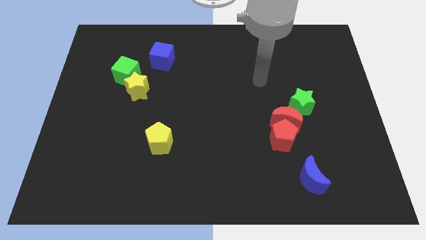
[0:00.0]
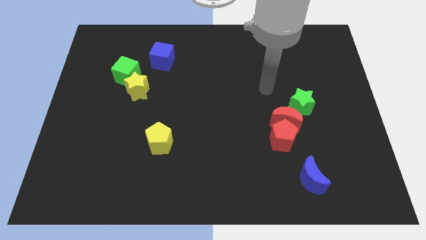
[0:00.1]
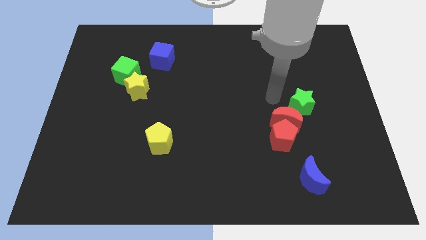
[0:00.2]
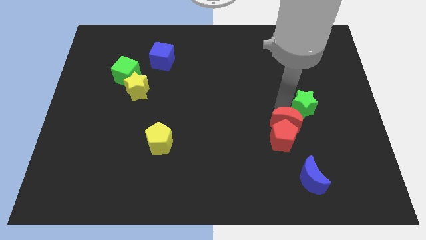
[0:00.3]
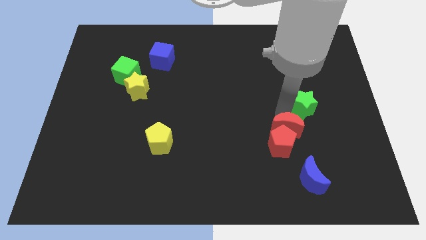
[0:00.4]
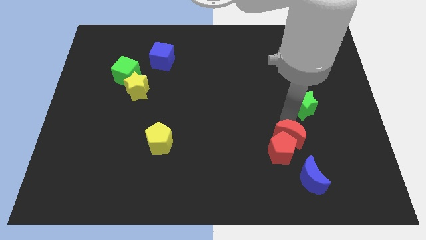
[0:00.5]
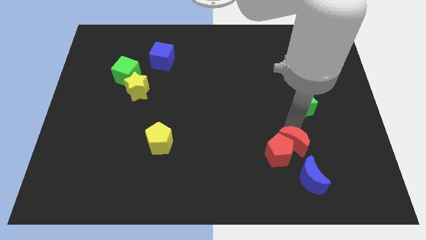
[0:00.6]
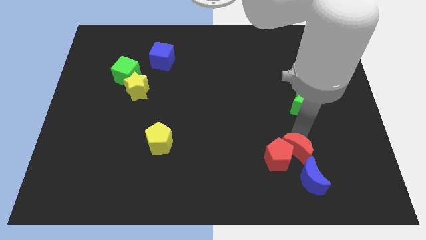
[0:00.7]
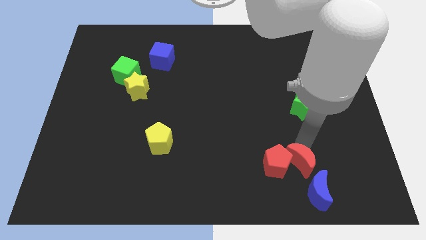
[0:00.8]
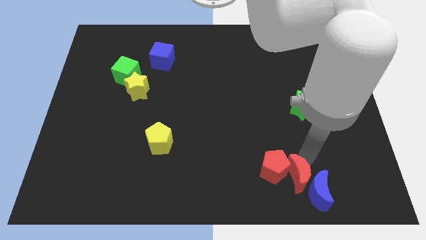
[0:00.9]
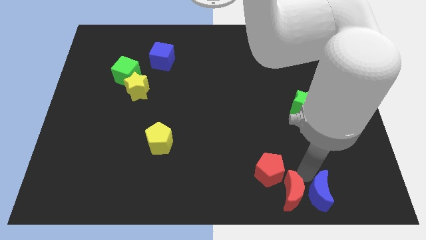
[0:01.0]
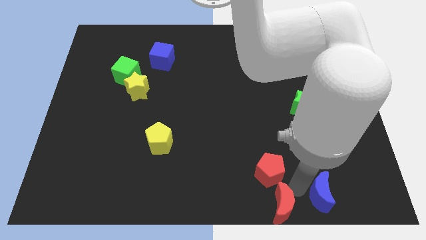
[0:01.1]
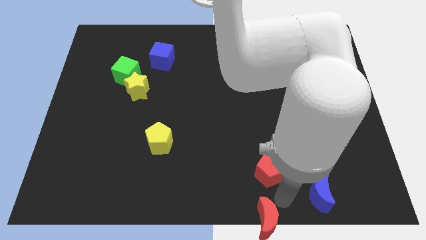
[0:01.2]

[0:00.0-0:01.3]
pull the red pentagon apart from the red moon

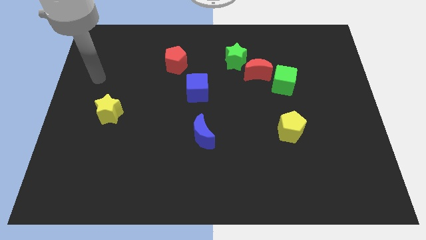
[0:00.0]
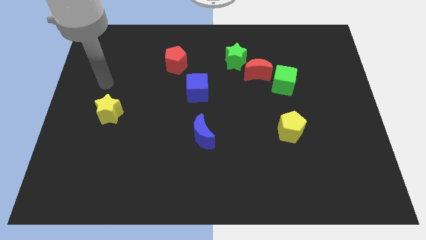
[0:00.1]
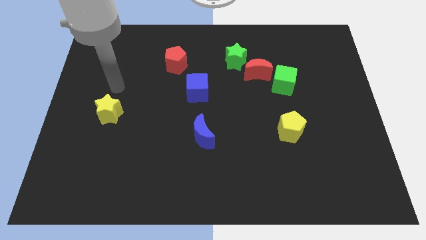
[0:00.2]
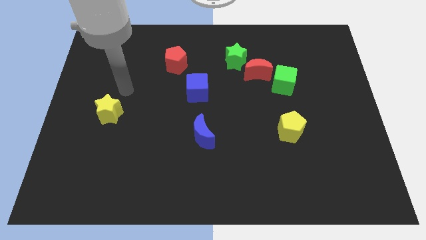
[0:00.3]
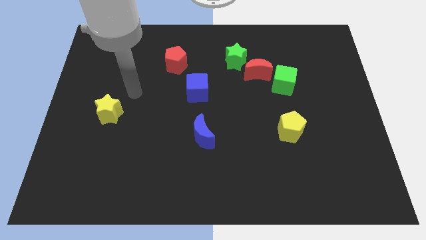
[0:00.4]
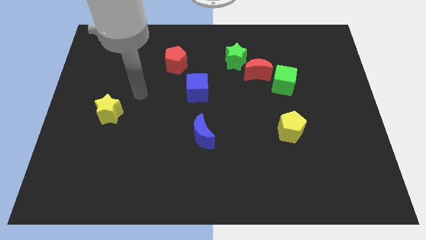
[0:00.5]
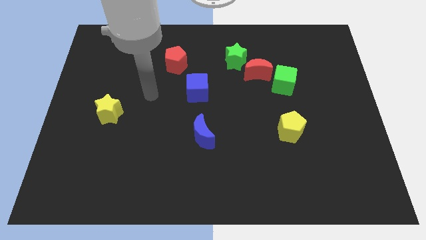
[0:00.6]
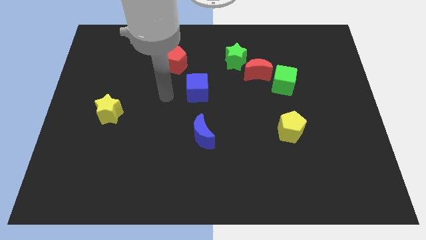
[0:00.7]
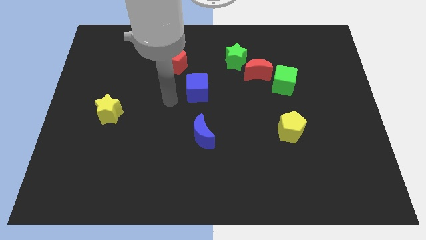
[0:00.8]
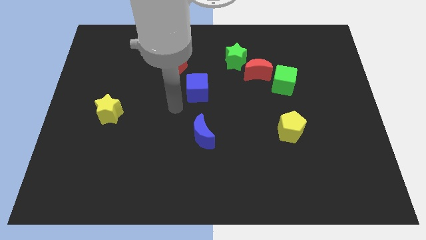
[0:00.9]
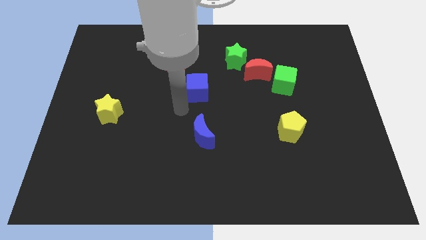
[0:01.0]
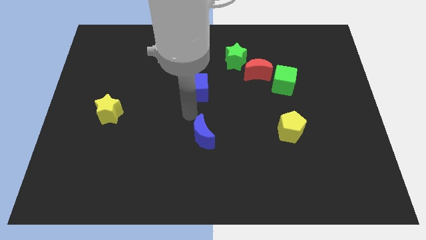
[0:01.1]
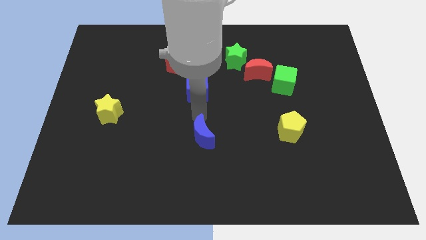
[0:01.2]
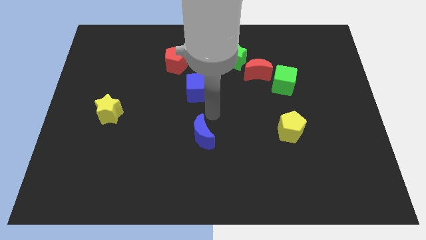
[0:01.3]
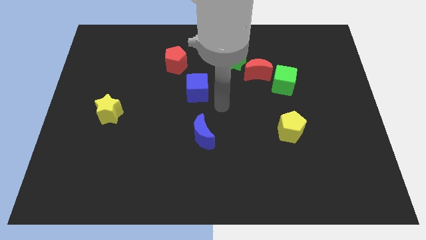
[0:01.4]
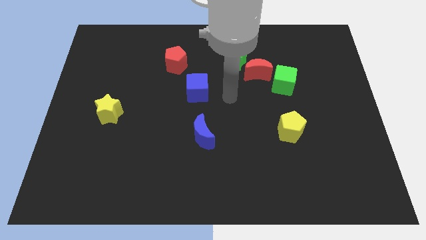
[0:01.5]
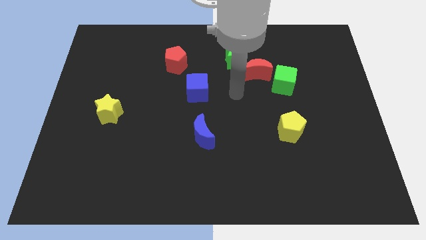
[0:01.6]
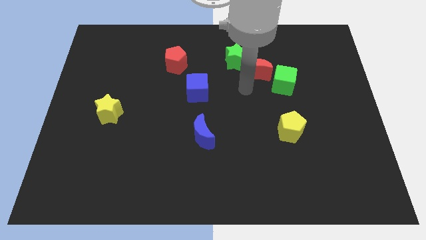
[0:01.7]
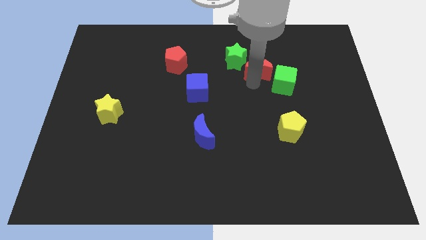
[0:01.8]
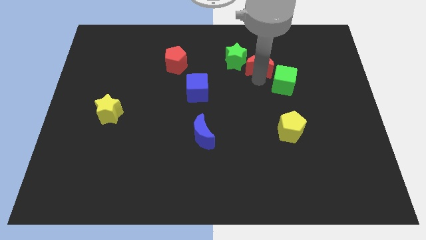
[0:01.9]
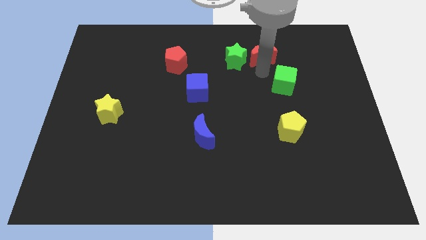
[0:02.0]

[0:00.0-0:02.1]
move the green cube away from the red moon

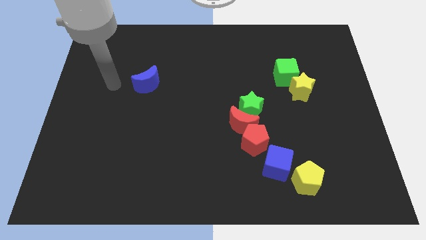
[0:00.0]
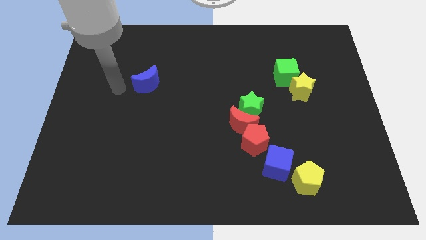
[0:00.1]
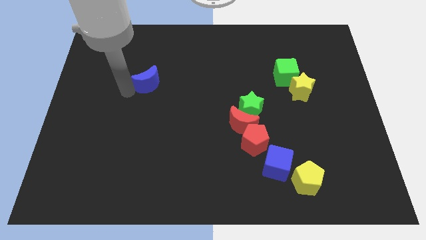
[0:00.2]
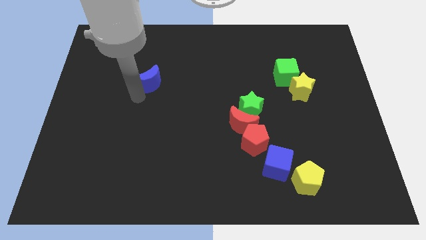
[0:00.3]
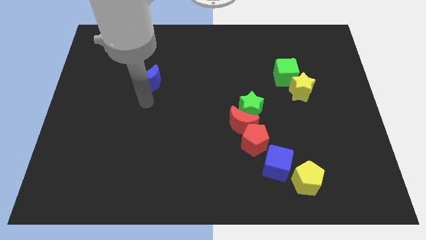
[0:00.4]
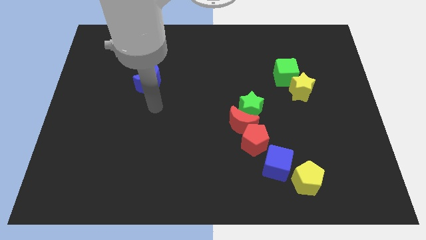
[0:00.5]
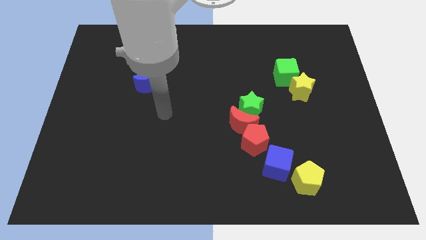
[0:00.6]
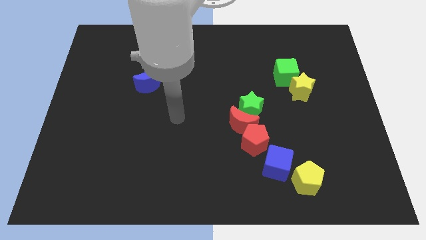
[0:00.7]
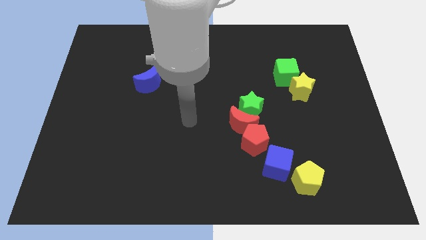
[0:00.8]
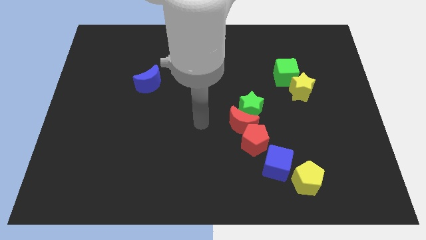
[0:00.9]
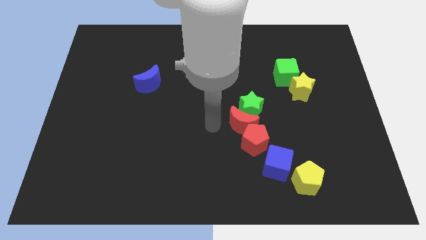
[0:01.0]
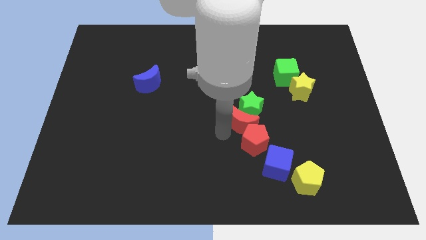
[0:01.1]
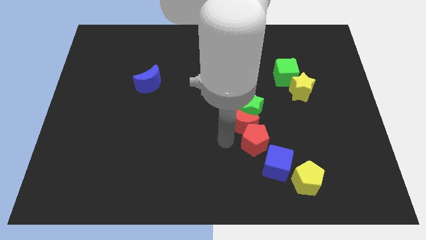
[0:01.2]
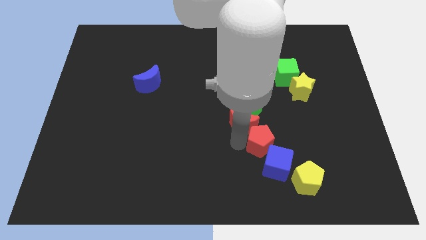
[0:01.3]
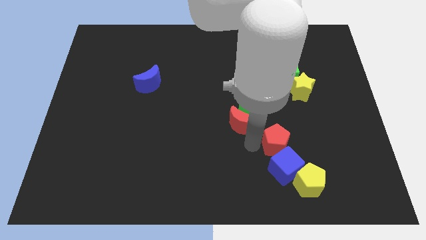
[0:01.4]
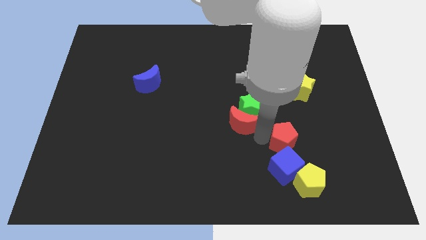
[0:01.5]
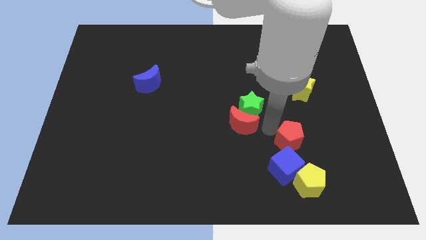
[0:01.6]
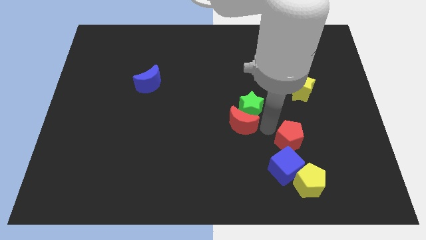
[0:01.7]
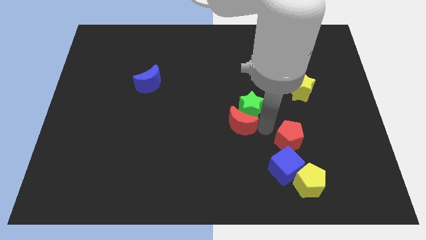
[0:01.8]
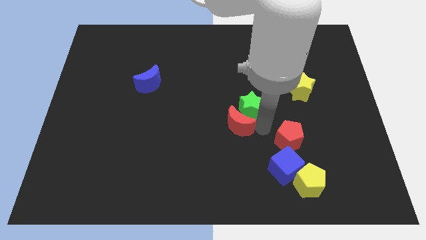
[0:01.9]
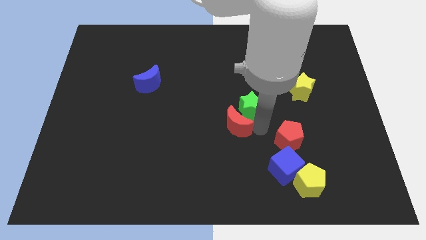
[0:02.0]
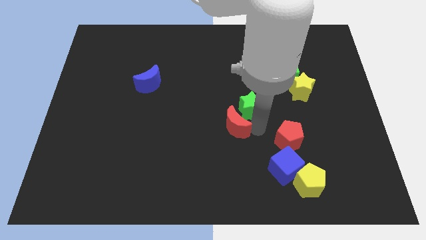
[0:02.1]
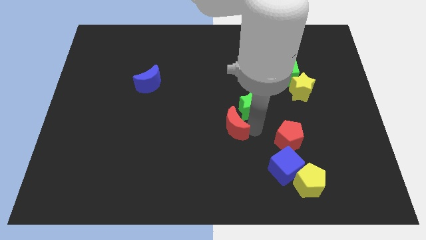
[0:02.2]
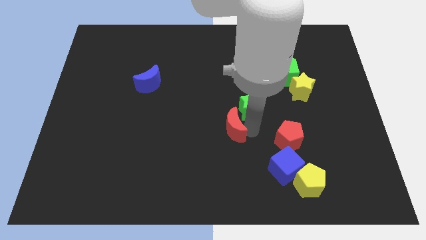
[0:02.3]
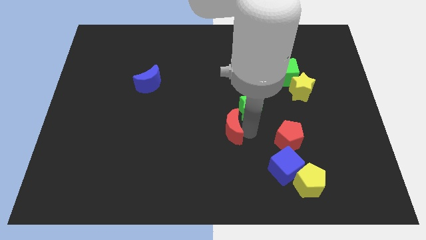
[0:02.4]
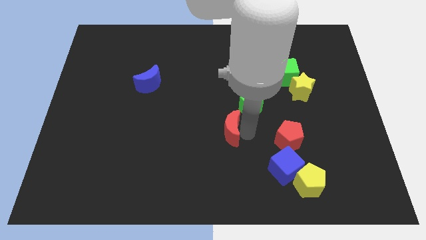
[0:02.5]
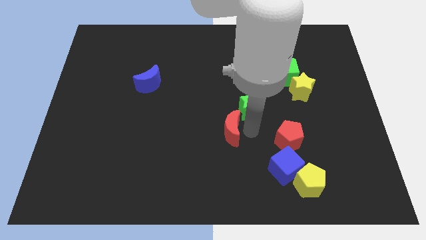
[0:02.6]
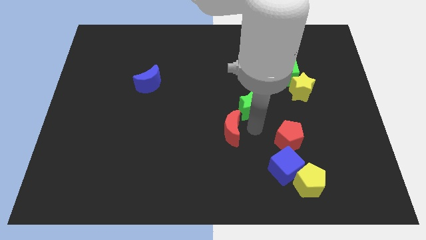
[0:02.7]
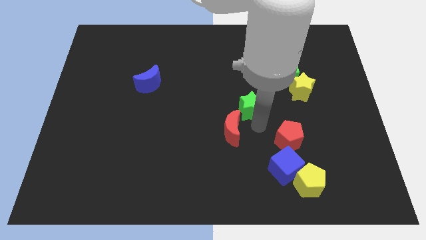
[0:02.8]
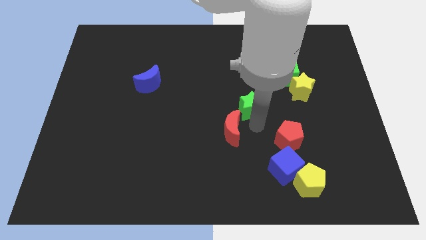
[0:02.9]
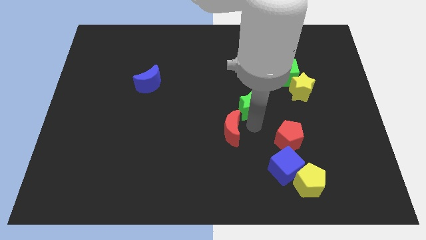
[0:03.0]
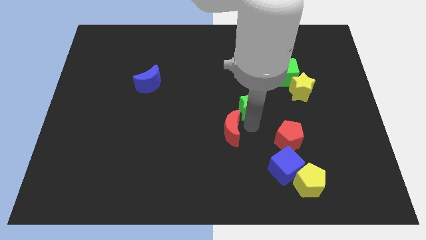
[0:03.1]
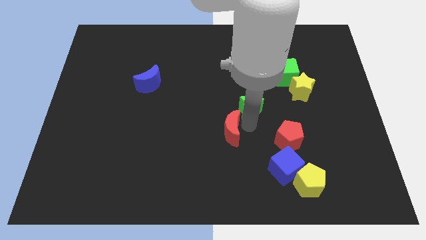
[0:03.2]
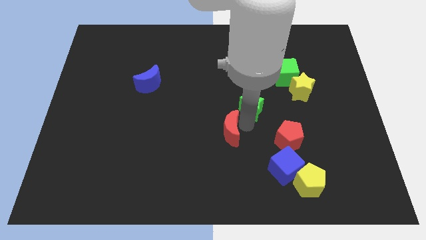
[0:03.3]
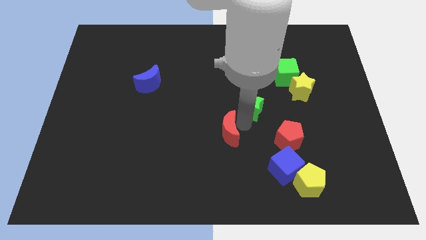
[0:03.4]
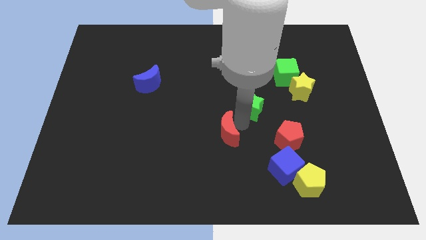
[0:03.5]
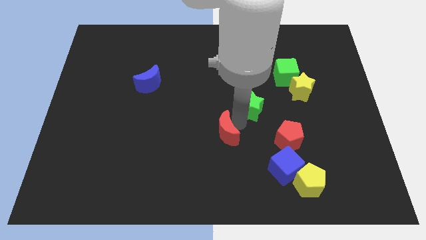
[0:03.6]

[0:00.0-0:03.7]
pull the red moon apart from the green star and red pentagon

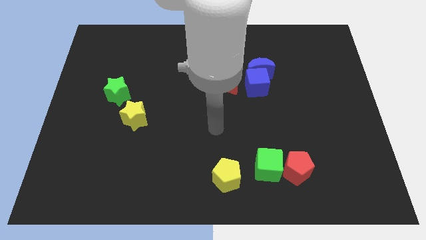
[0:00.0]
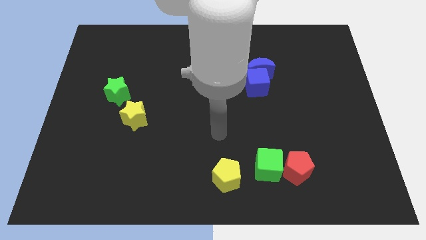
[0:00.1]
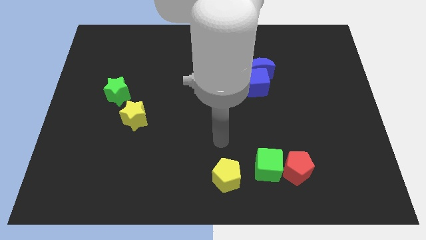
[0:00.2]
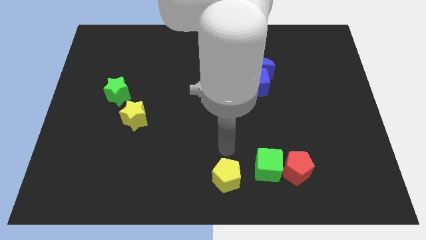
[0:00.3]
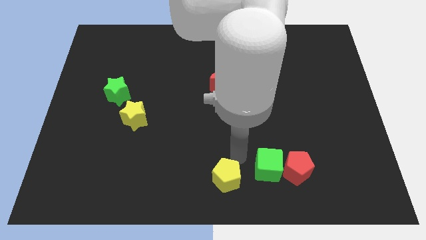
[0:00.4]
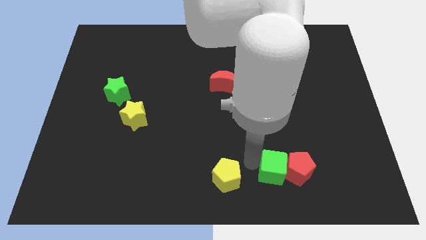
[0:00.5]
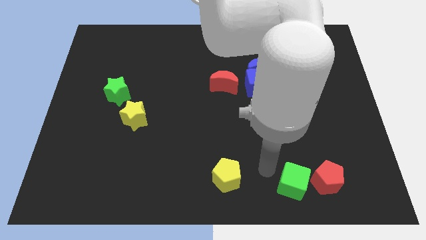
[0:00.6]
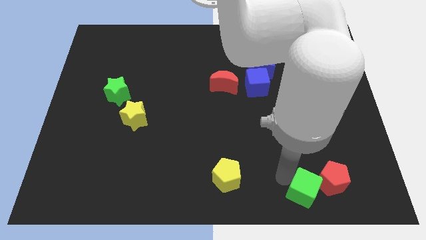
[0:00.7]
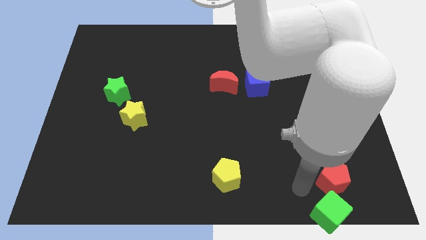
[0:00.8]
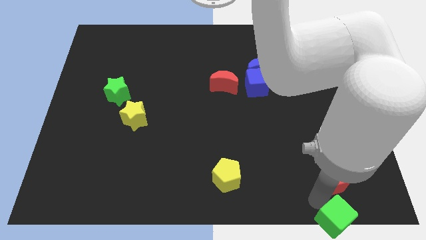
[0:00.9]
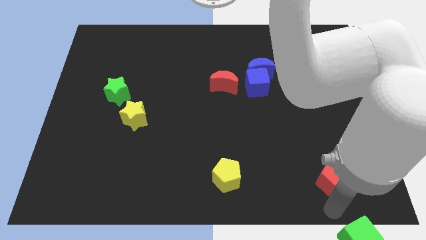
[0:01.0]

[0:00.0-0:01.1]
pull the red pentagon apart from the green cube

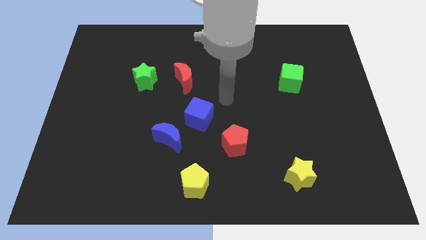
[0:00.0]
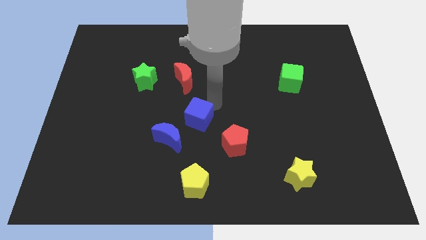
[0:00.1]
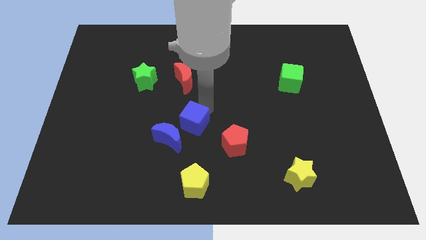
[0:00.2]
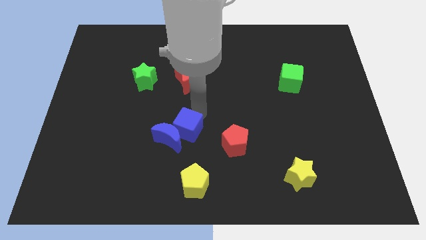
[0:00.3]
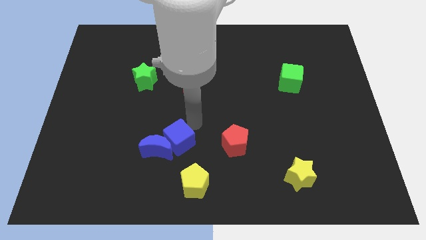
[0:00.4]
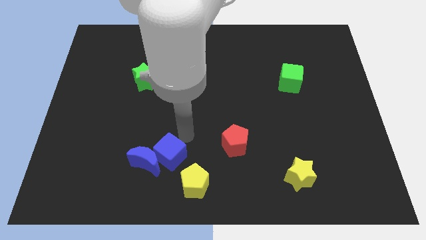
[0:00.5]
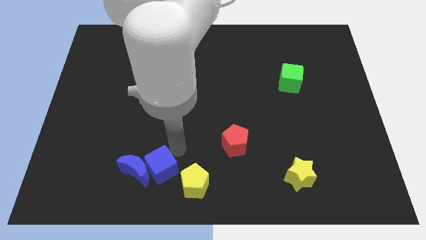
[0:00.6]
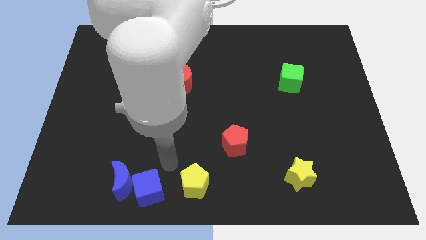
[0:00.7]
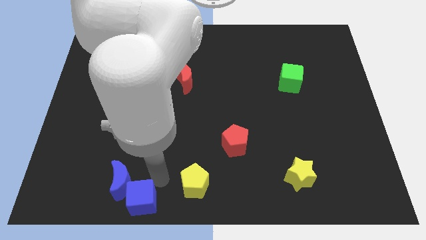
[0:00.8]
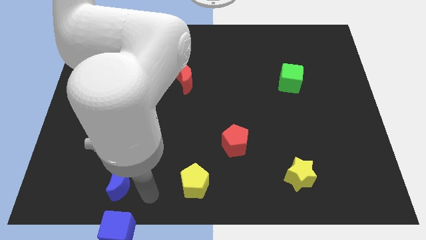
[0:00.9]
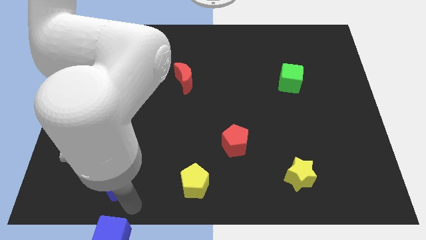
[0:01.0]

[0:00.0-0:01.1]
separate the blue moon from the blue cube

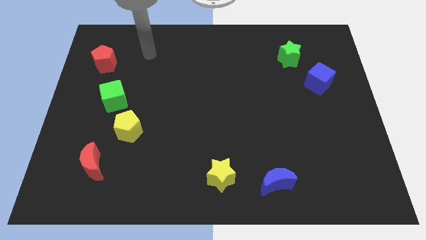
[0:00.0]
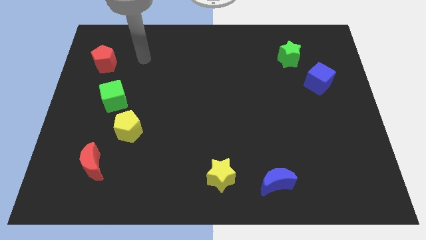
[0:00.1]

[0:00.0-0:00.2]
move the green cube away from the yellow pentagon
